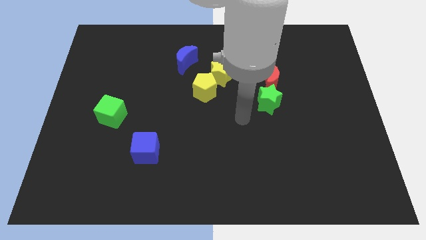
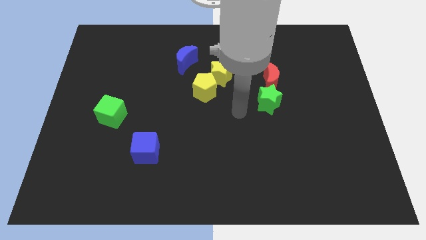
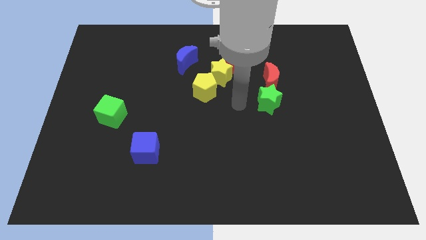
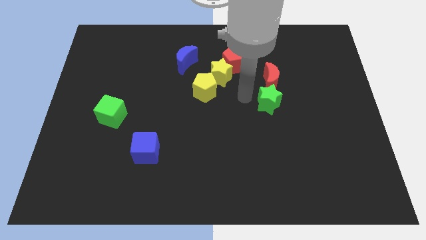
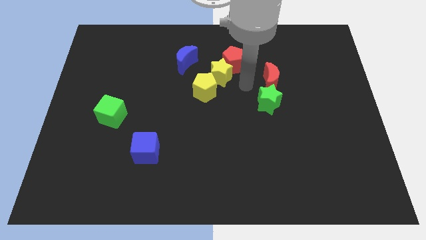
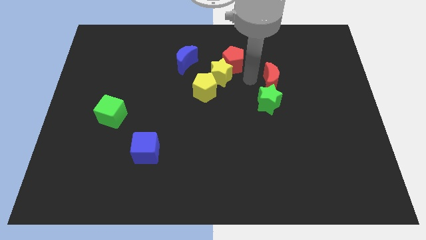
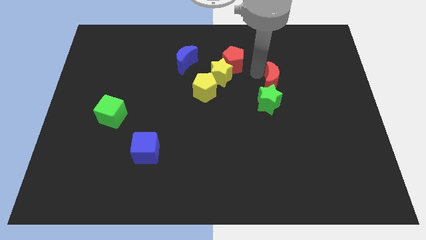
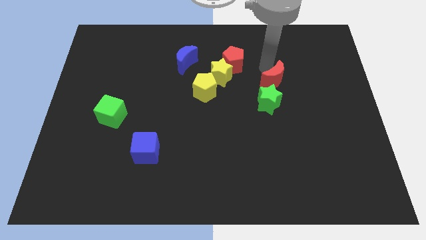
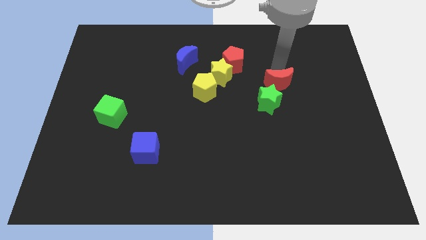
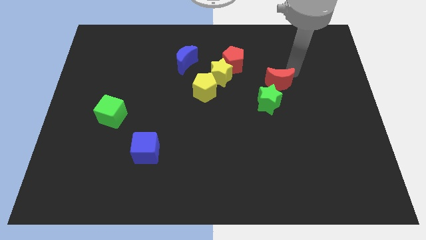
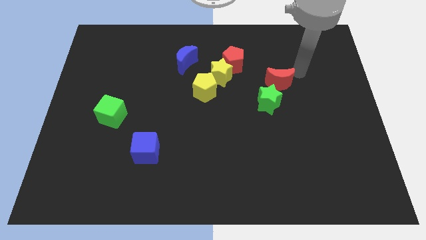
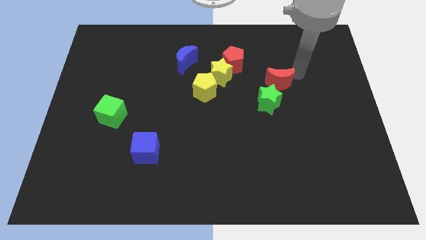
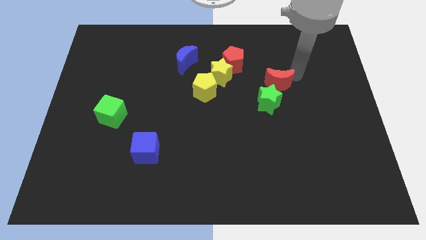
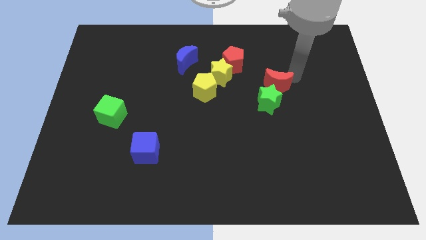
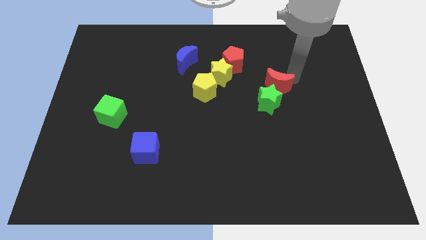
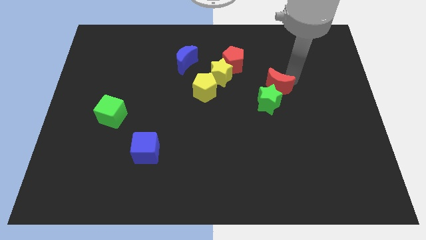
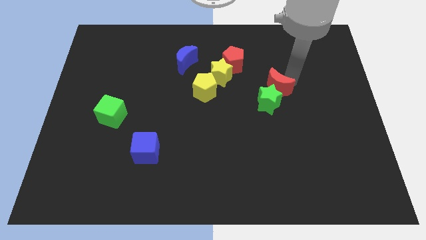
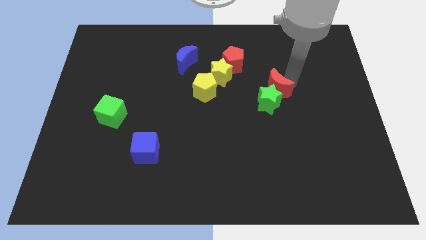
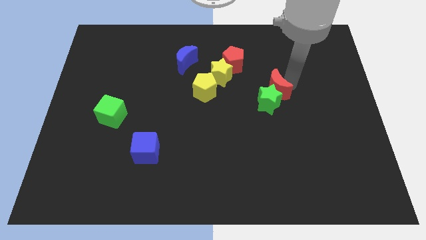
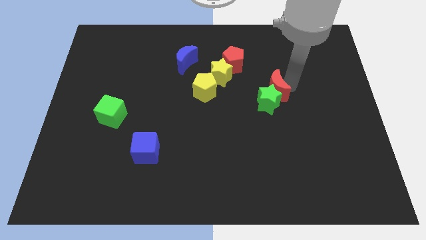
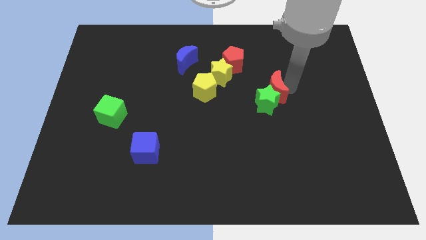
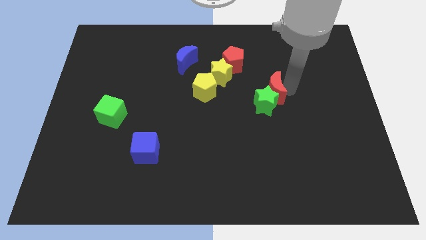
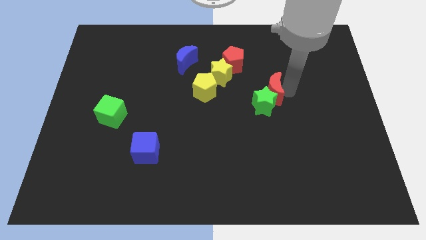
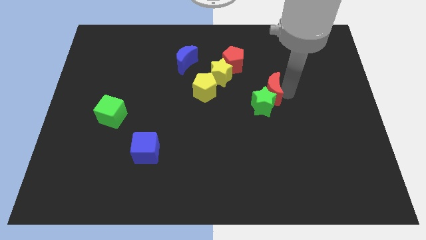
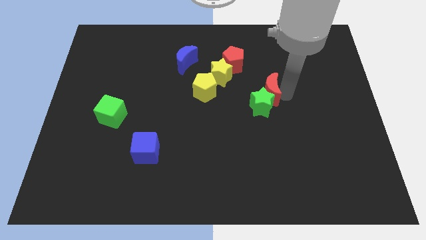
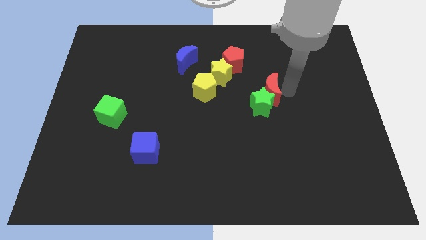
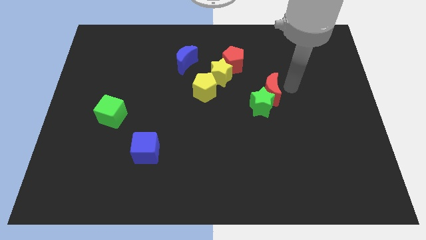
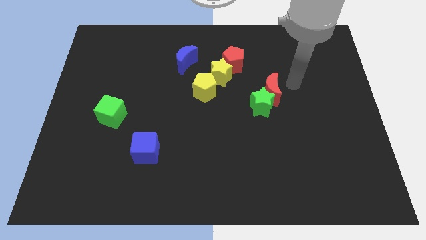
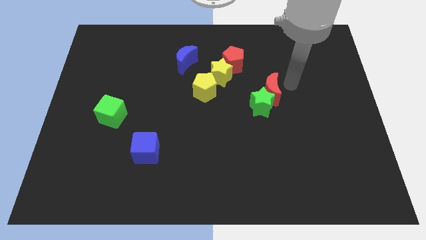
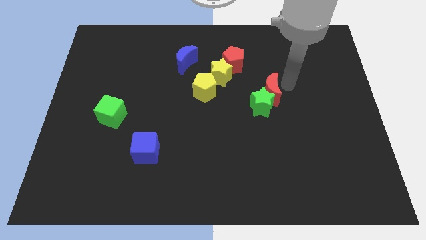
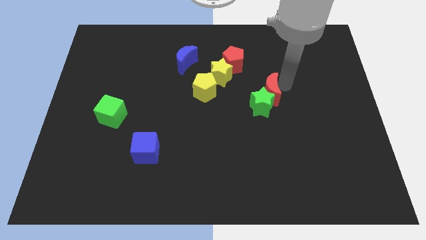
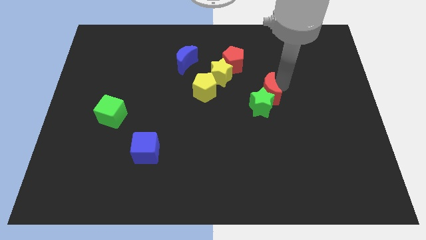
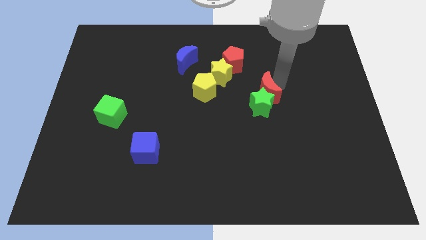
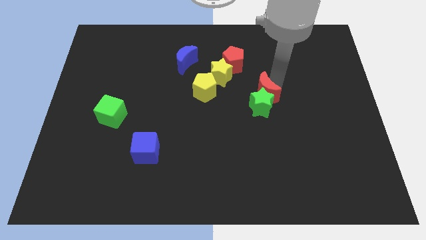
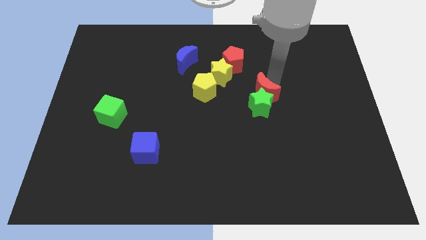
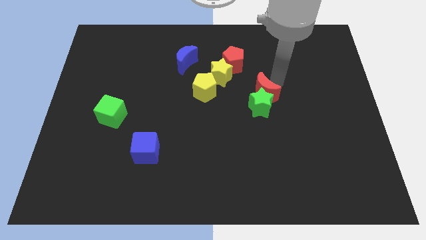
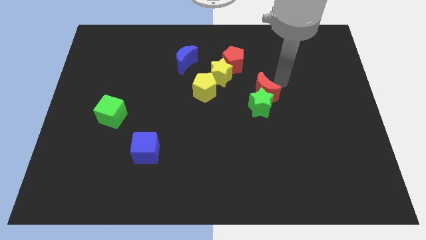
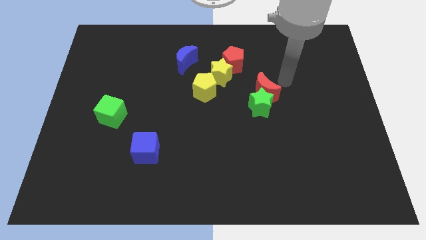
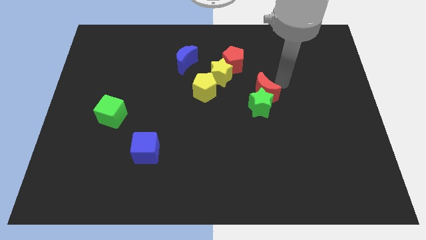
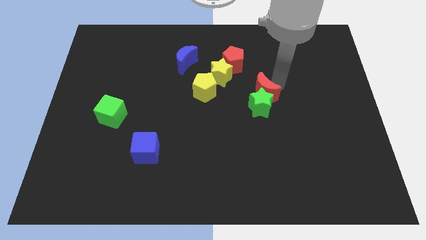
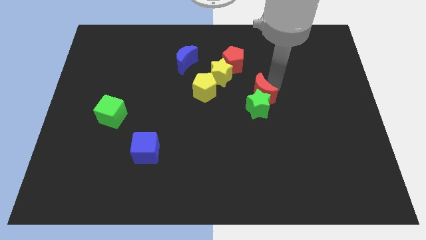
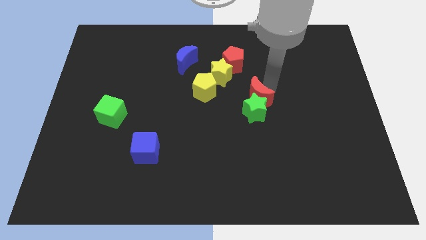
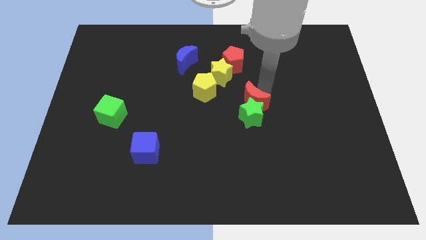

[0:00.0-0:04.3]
slide the red moon a bit downwards and to the left

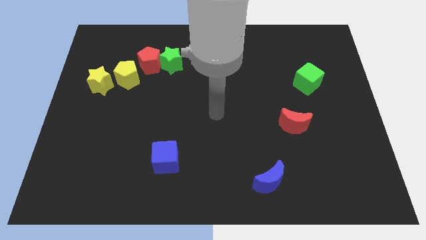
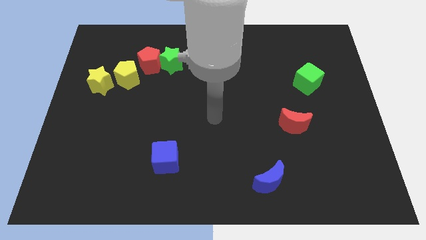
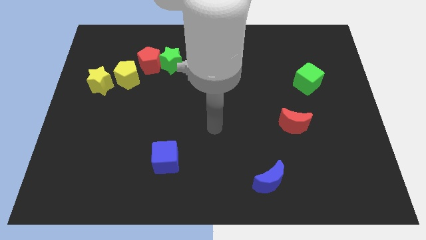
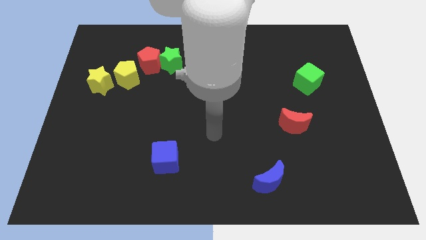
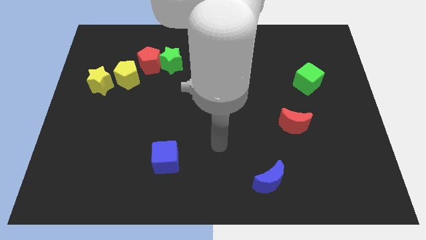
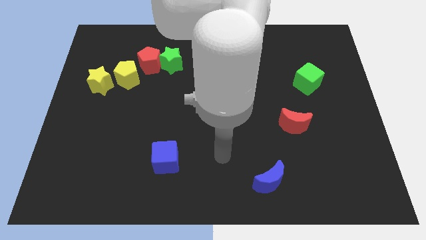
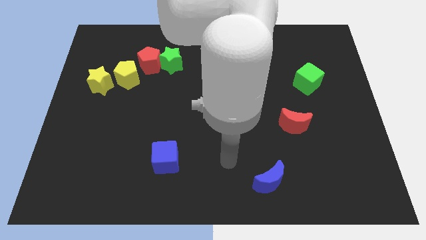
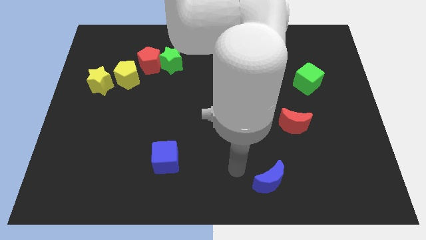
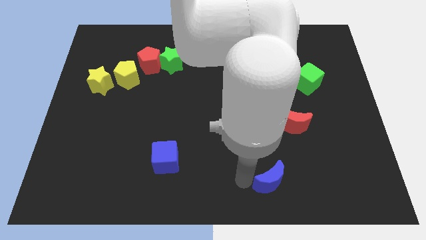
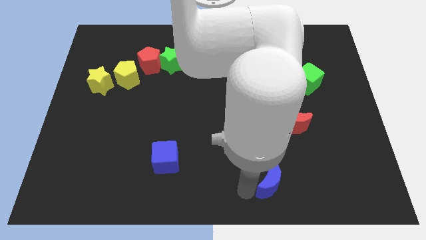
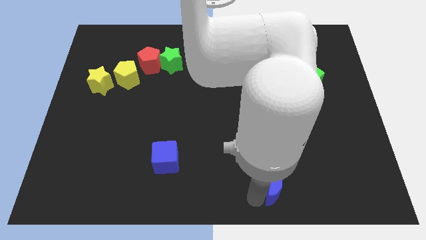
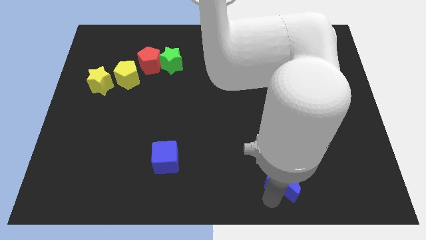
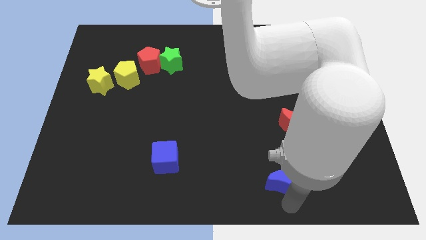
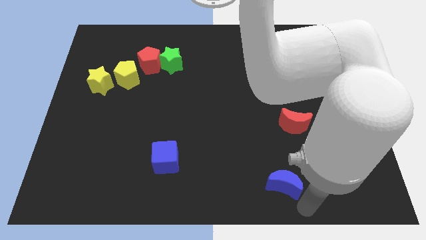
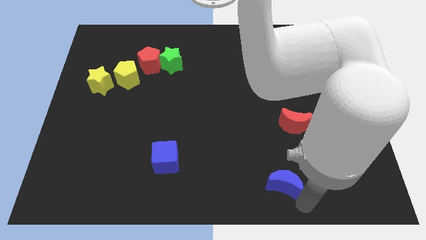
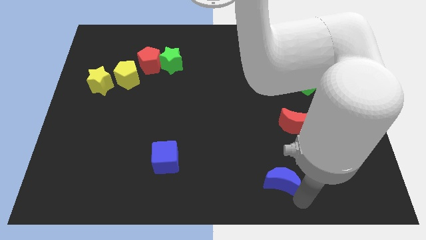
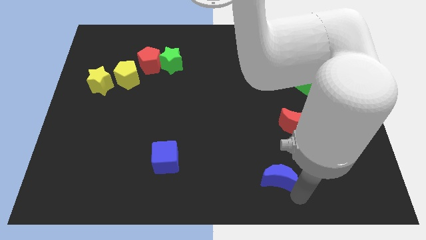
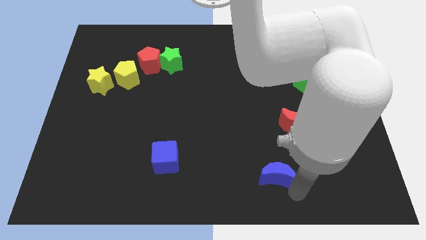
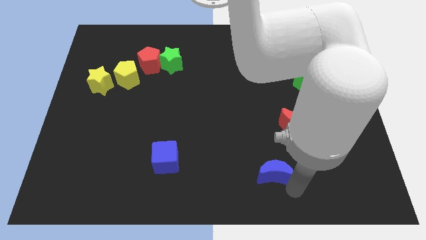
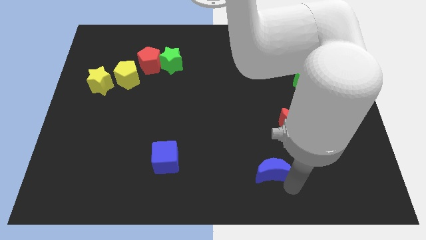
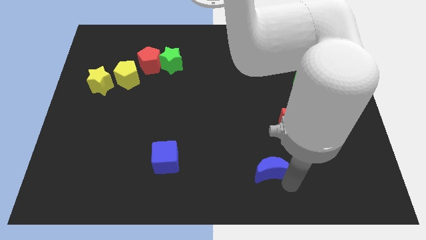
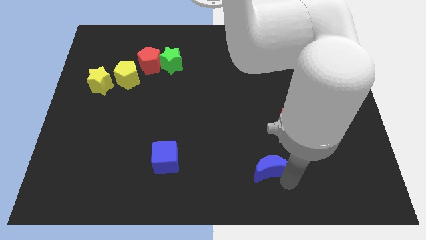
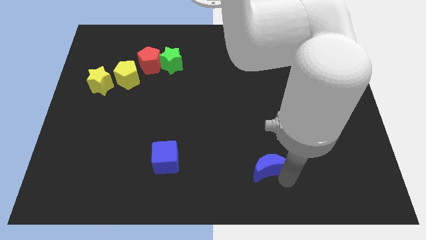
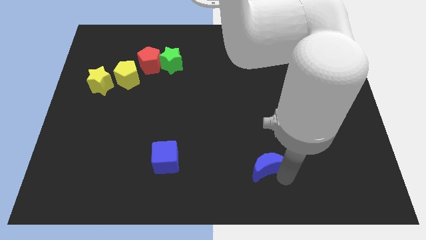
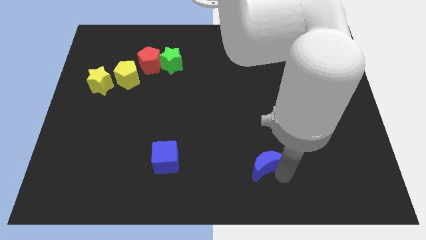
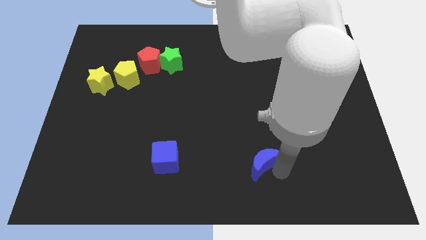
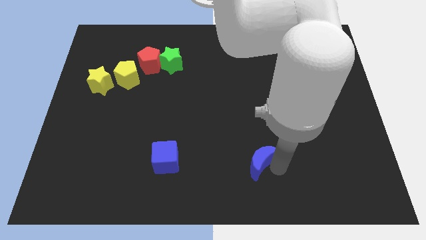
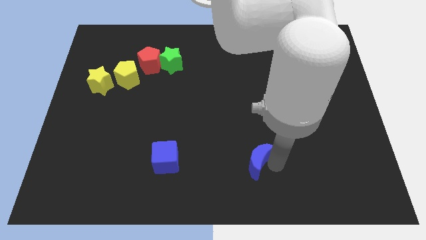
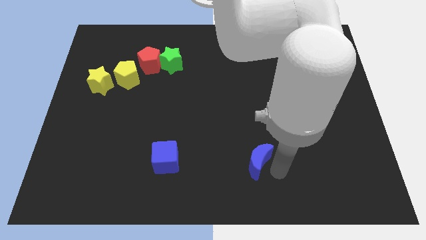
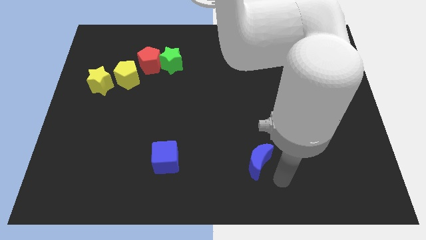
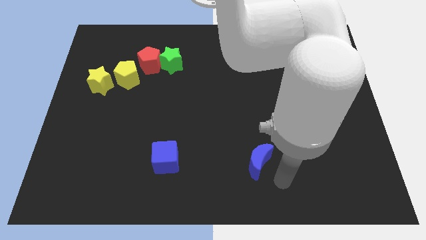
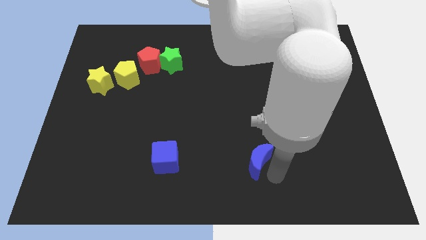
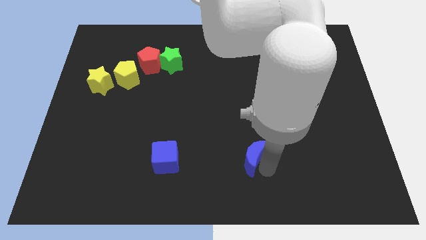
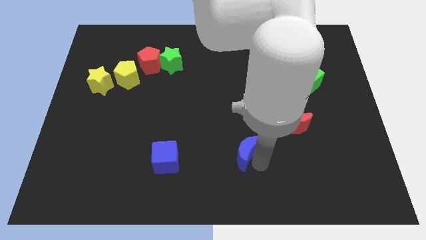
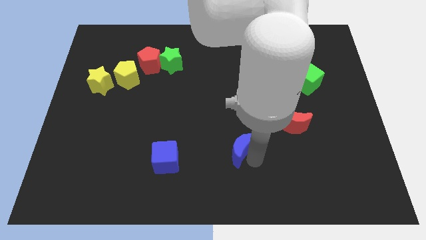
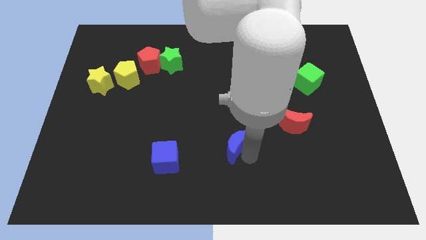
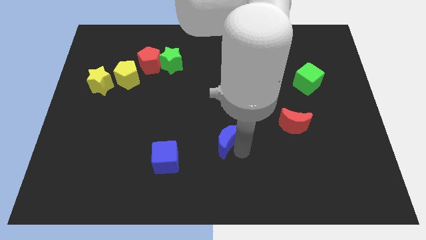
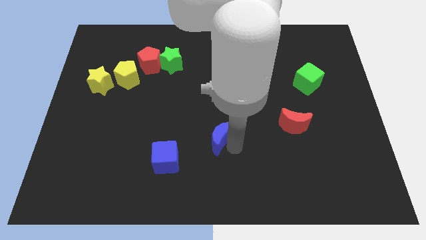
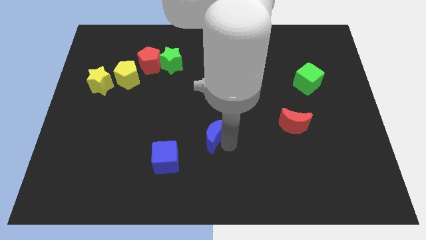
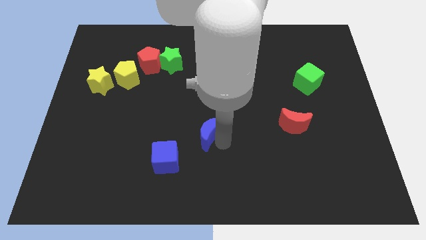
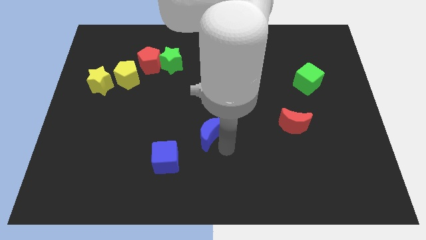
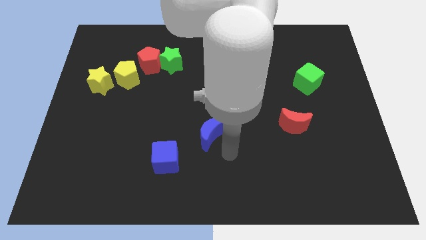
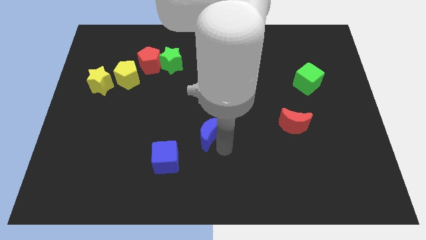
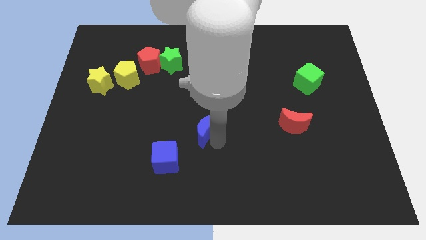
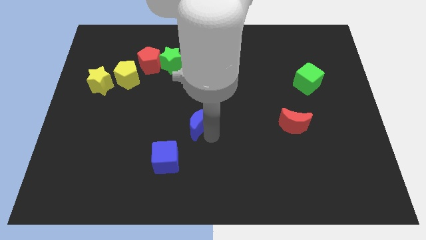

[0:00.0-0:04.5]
slide the blue moon up and then to the left
